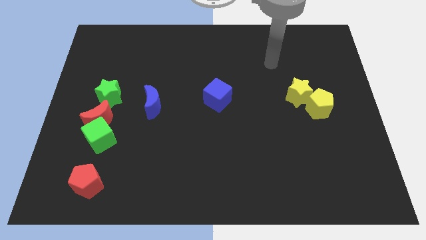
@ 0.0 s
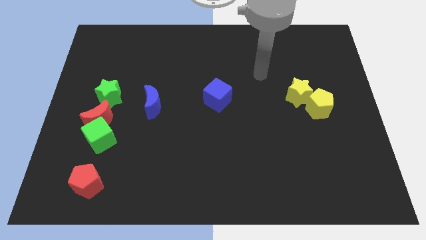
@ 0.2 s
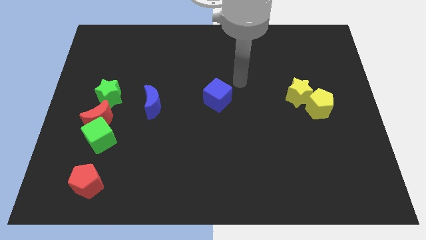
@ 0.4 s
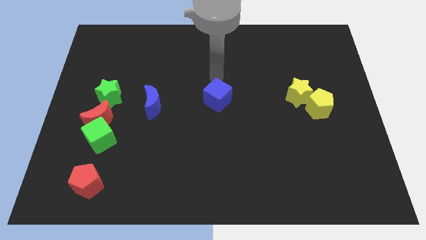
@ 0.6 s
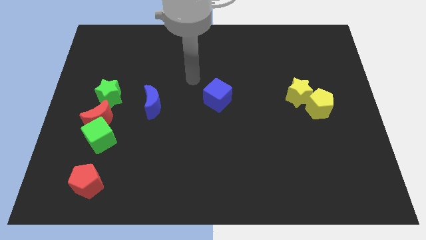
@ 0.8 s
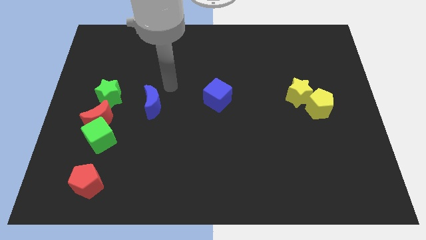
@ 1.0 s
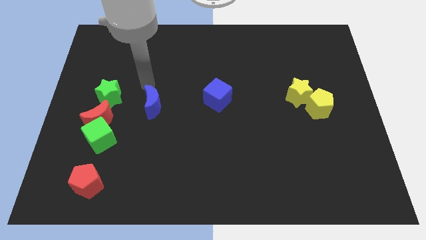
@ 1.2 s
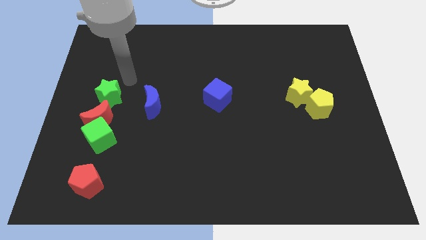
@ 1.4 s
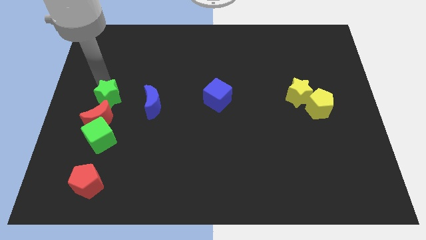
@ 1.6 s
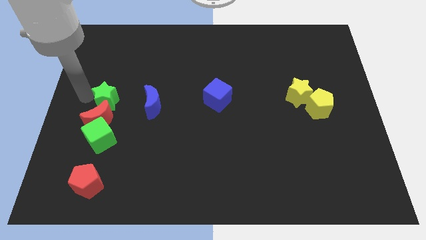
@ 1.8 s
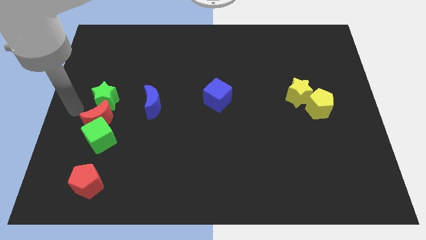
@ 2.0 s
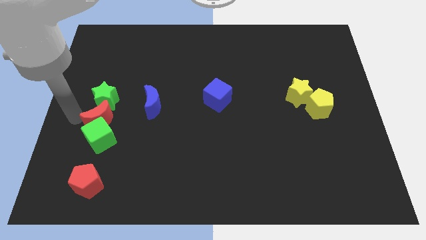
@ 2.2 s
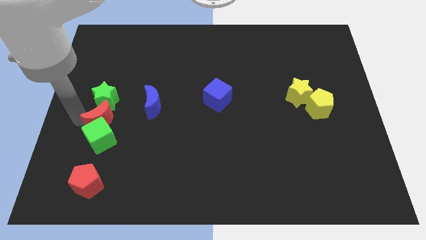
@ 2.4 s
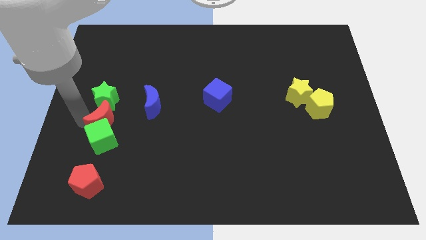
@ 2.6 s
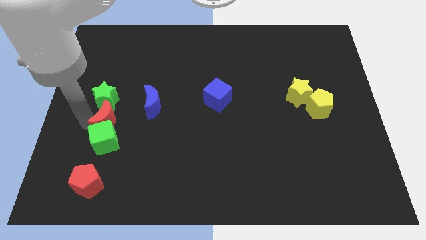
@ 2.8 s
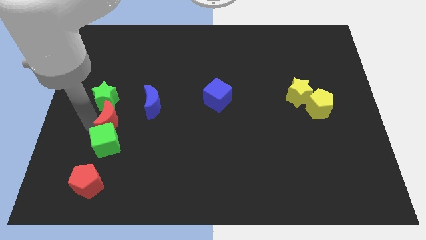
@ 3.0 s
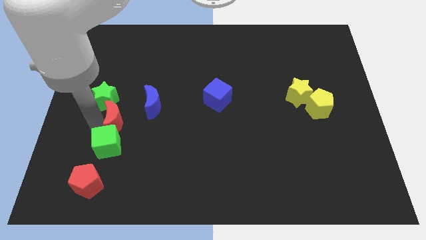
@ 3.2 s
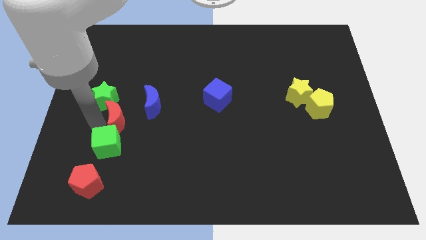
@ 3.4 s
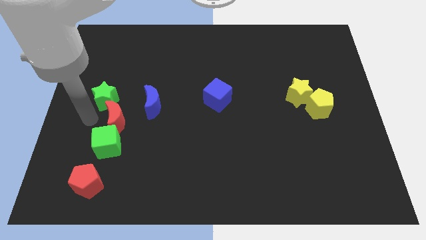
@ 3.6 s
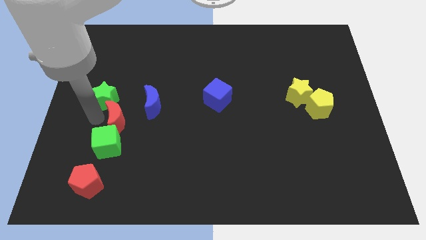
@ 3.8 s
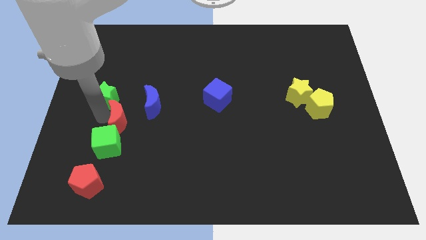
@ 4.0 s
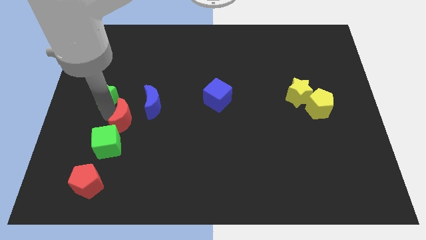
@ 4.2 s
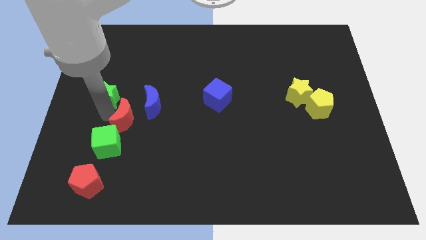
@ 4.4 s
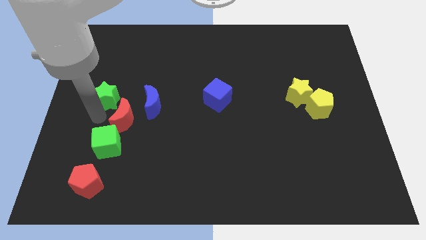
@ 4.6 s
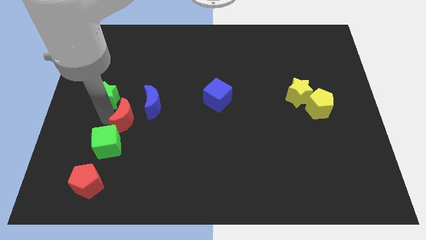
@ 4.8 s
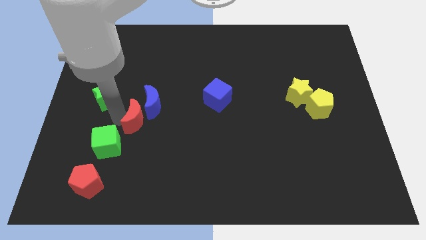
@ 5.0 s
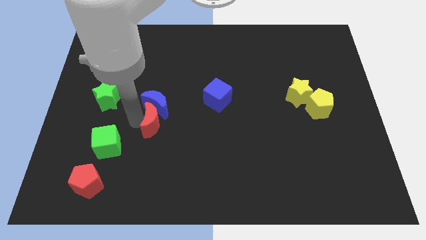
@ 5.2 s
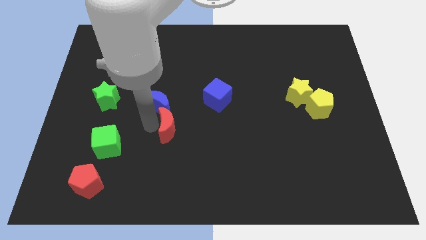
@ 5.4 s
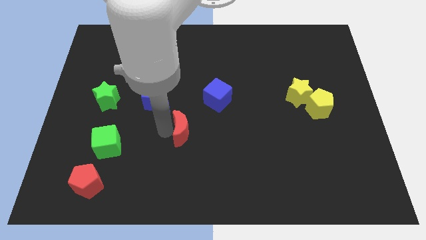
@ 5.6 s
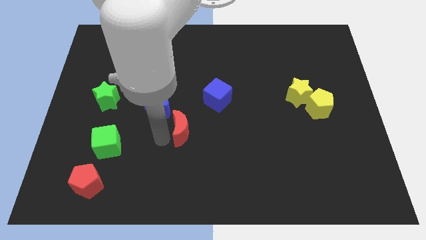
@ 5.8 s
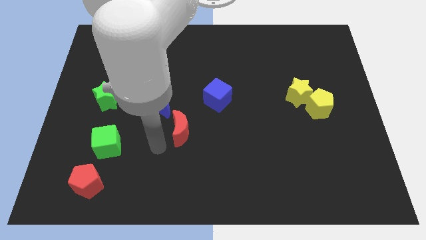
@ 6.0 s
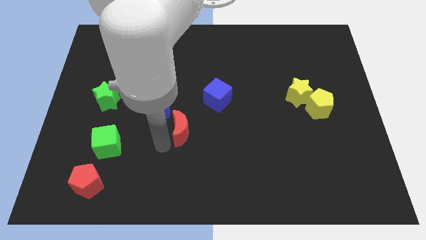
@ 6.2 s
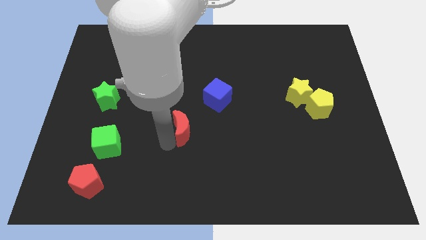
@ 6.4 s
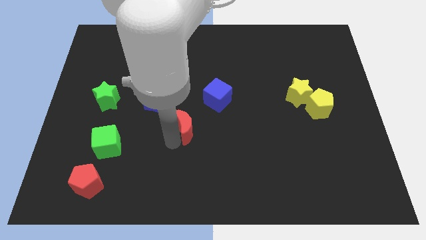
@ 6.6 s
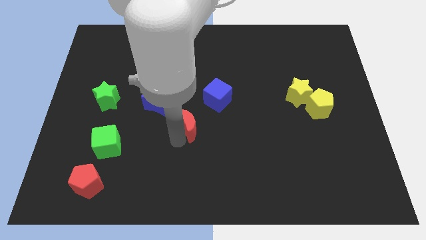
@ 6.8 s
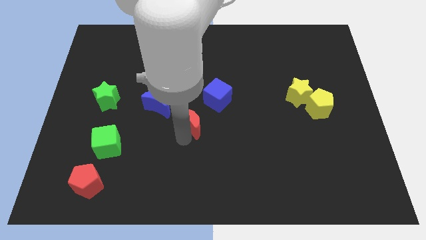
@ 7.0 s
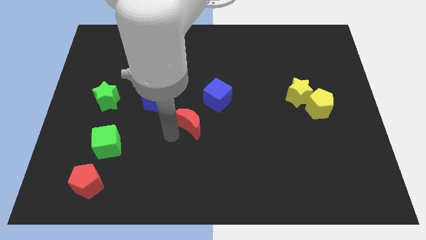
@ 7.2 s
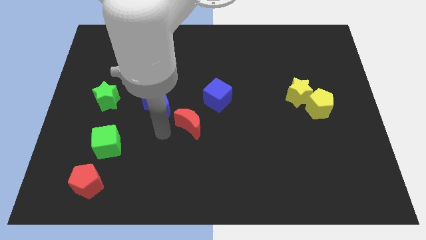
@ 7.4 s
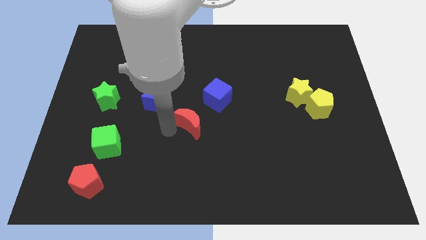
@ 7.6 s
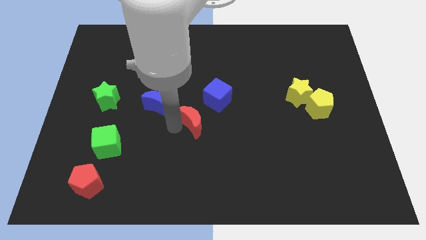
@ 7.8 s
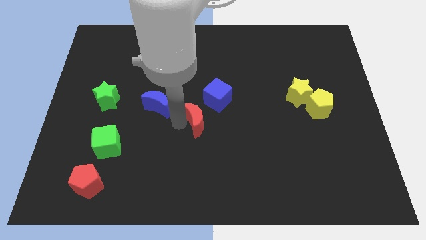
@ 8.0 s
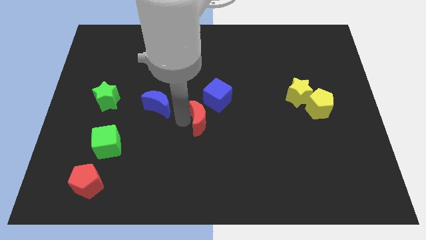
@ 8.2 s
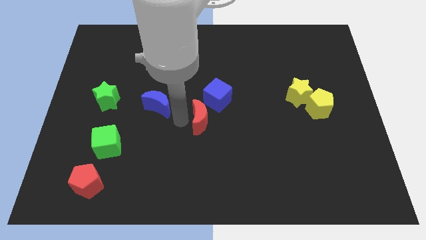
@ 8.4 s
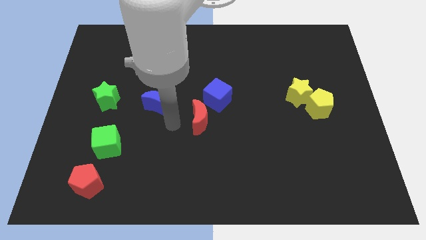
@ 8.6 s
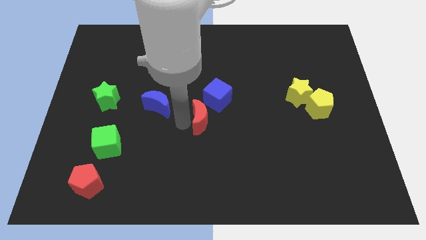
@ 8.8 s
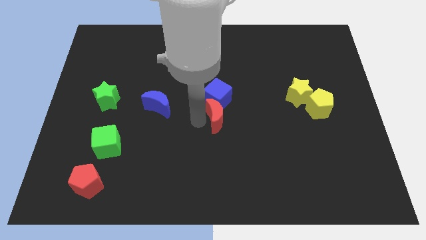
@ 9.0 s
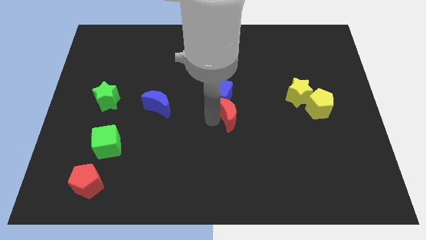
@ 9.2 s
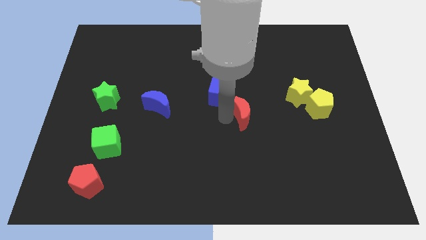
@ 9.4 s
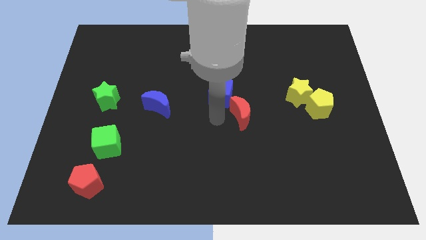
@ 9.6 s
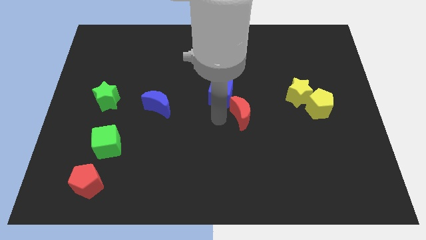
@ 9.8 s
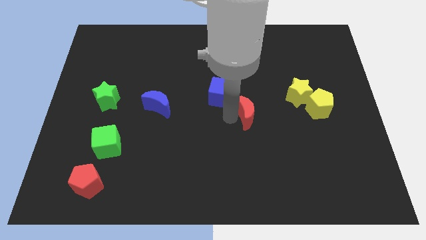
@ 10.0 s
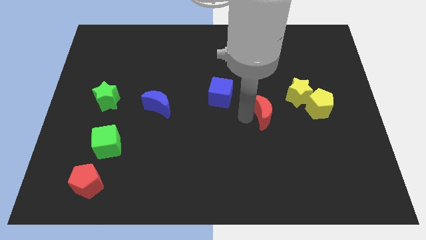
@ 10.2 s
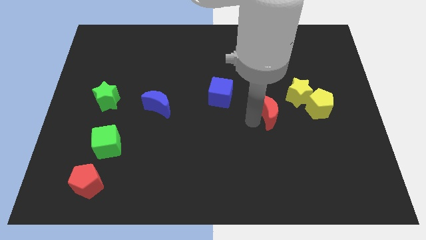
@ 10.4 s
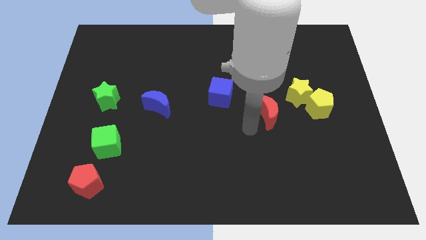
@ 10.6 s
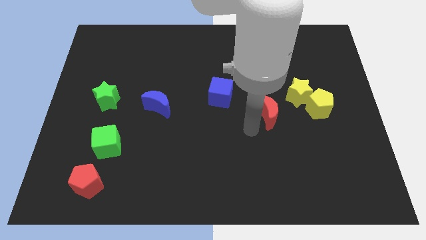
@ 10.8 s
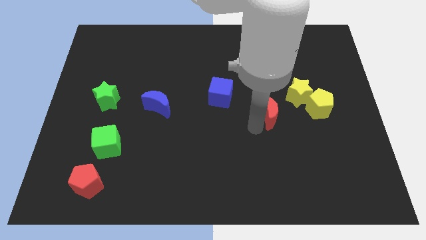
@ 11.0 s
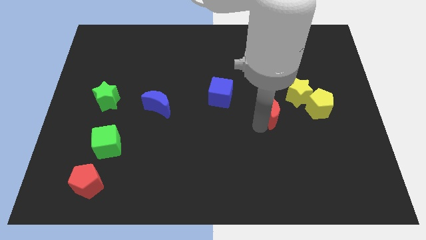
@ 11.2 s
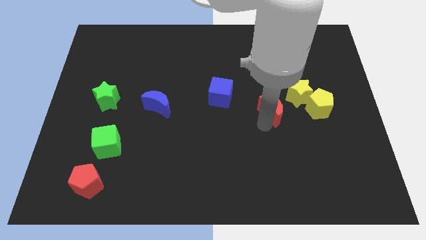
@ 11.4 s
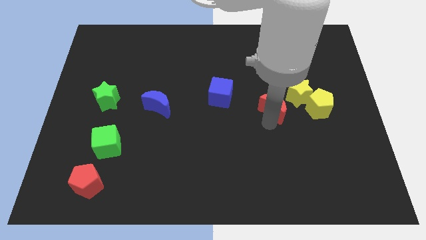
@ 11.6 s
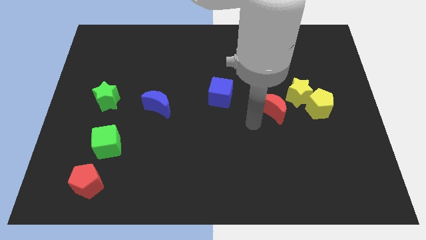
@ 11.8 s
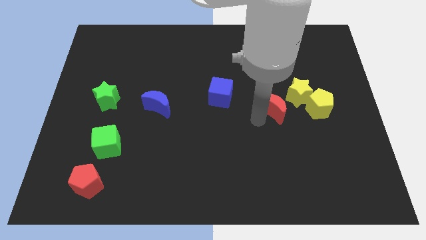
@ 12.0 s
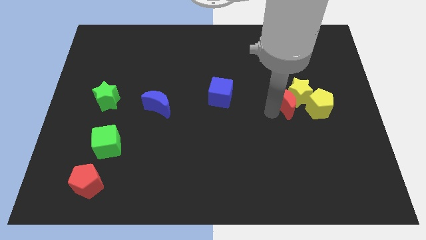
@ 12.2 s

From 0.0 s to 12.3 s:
put the red moon towards the yellow star

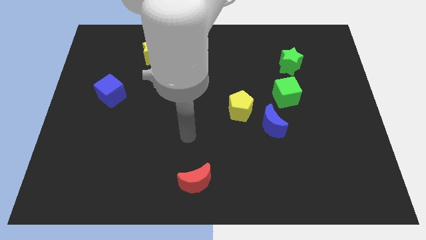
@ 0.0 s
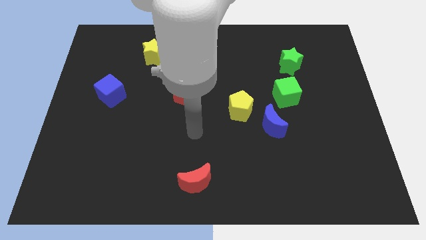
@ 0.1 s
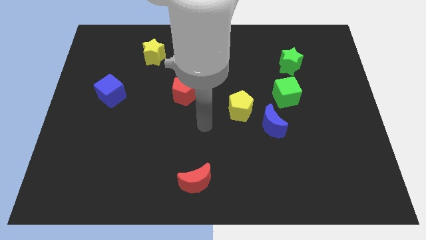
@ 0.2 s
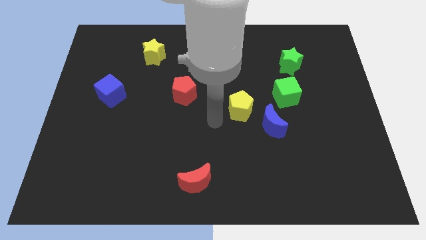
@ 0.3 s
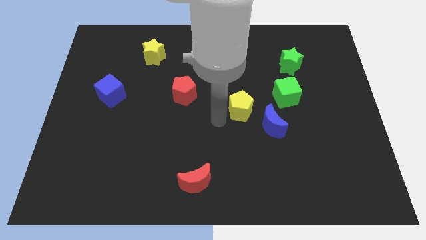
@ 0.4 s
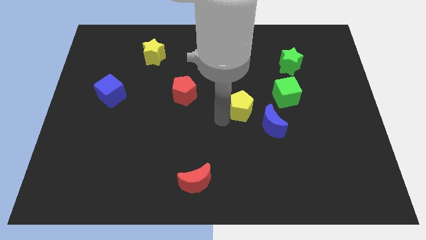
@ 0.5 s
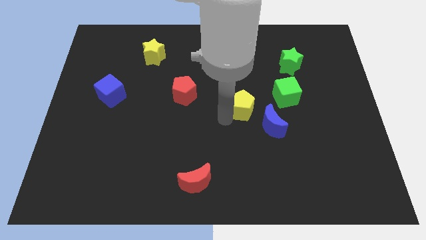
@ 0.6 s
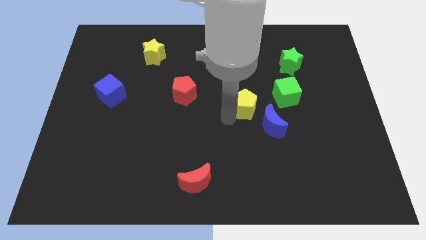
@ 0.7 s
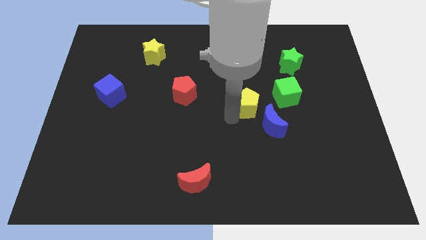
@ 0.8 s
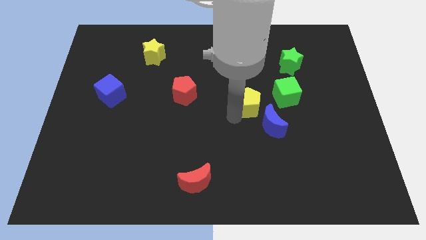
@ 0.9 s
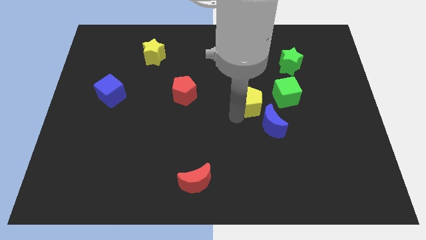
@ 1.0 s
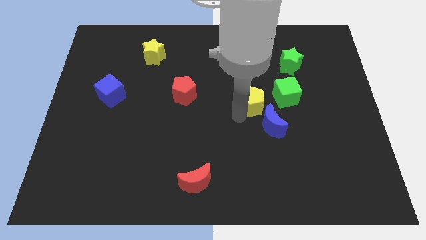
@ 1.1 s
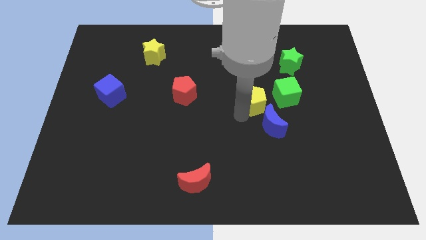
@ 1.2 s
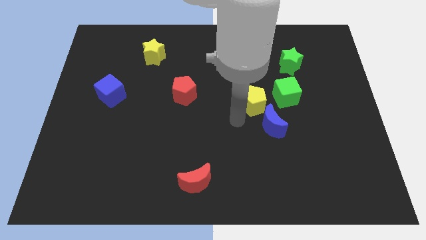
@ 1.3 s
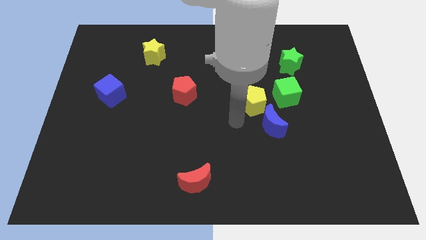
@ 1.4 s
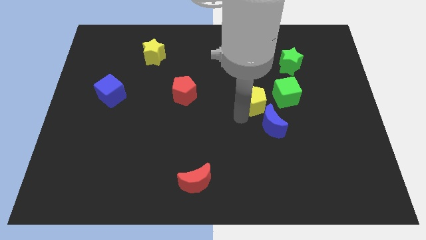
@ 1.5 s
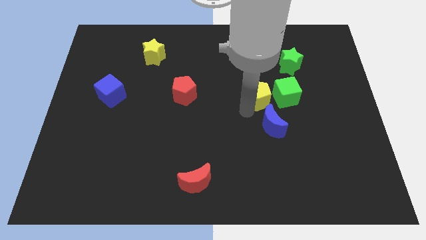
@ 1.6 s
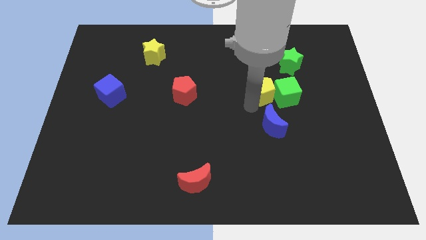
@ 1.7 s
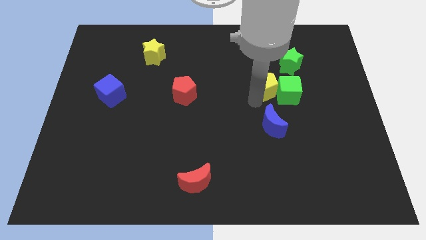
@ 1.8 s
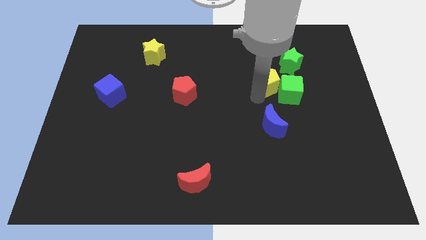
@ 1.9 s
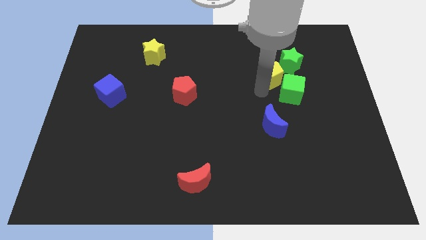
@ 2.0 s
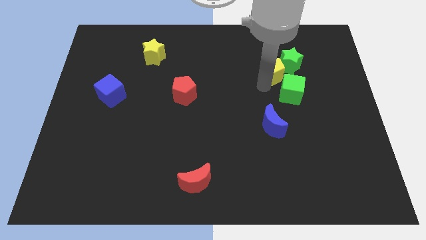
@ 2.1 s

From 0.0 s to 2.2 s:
push the yellow pentagon close to the green star
